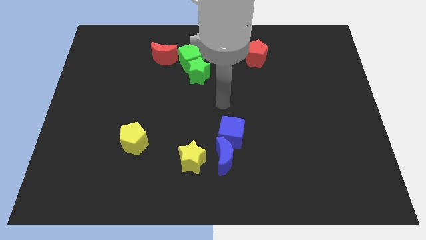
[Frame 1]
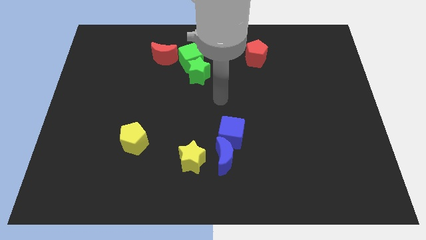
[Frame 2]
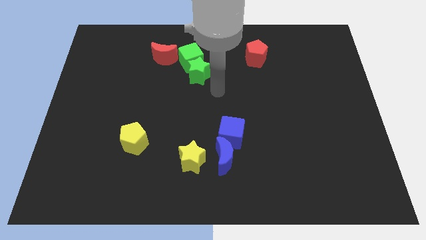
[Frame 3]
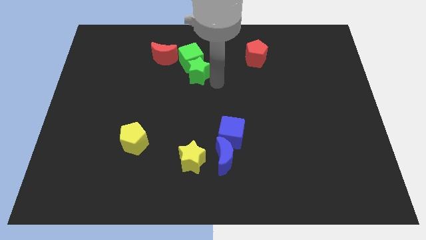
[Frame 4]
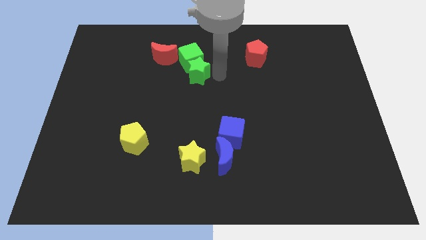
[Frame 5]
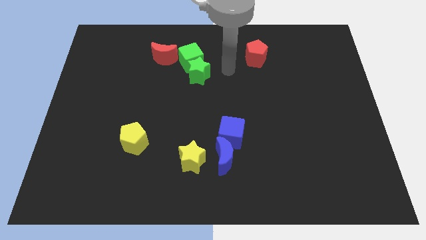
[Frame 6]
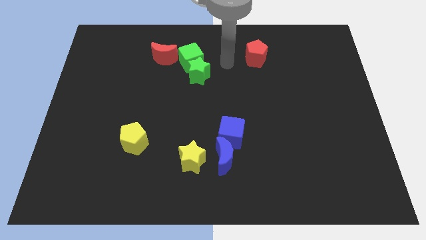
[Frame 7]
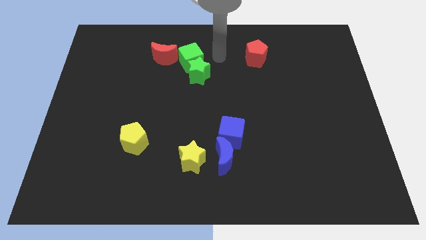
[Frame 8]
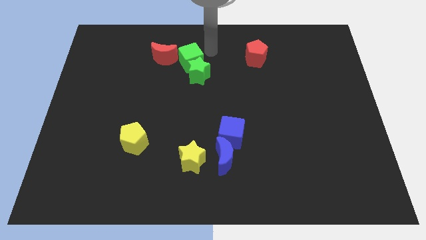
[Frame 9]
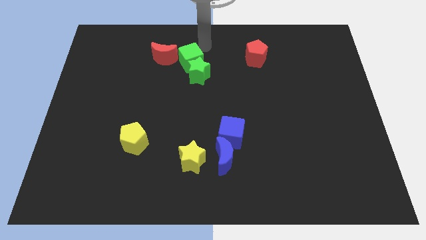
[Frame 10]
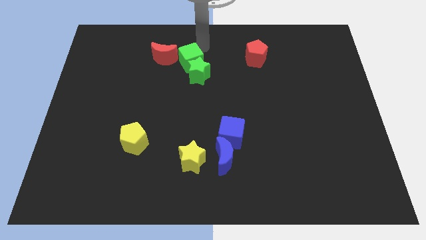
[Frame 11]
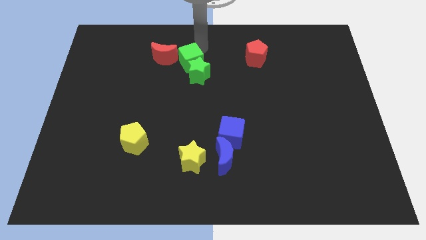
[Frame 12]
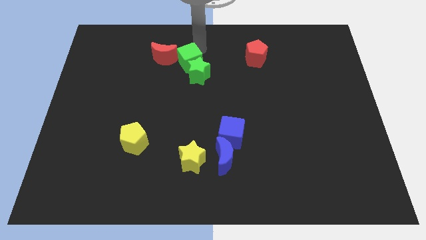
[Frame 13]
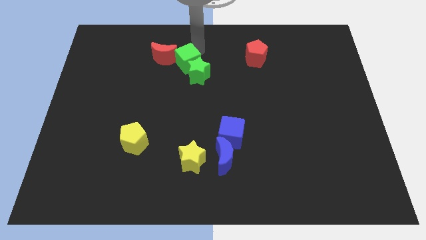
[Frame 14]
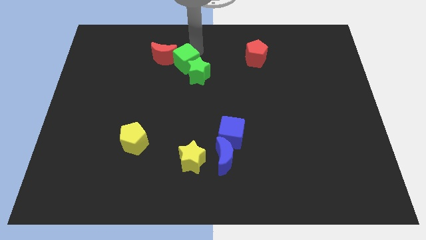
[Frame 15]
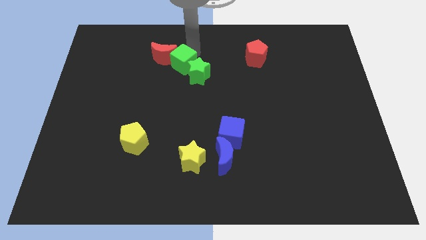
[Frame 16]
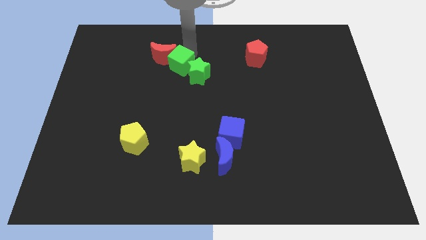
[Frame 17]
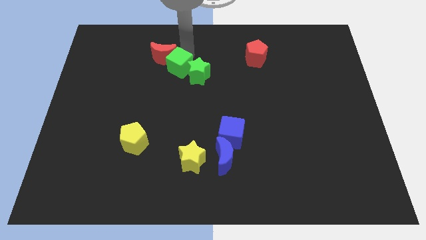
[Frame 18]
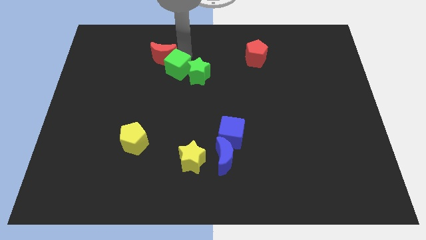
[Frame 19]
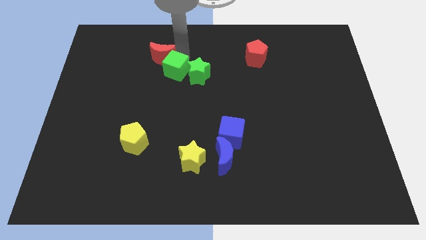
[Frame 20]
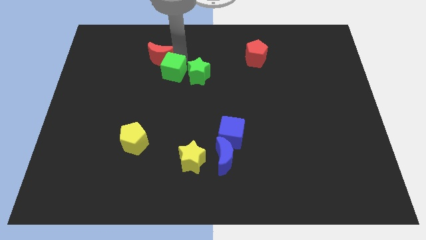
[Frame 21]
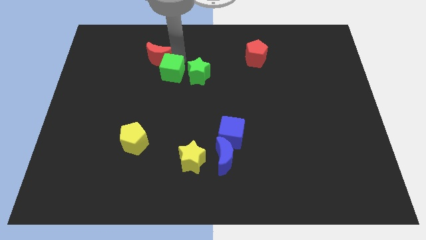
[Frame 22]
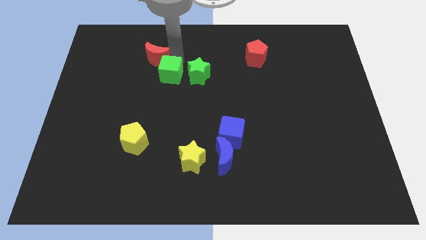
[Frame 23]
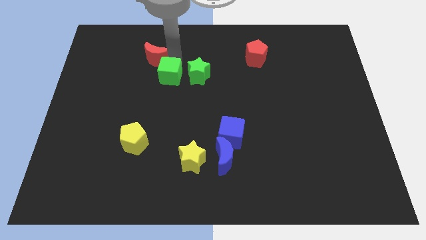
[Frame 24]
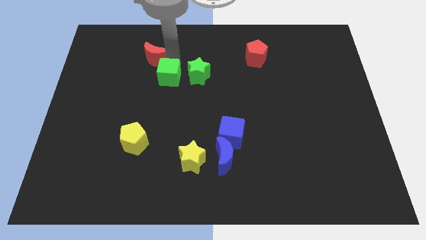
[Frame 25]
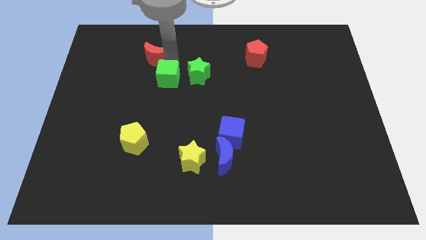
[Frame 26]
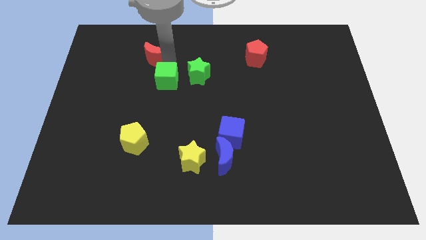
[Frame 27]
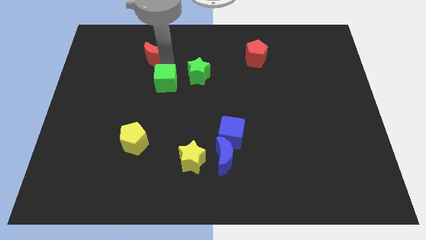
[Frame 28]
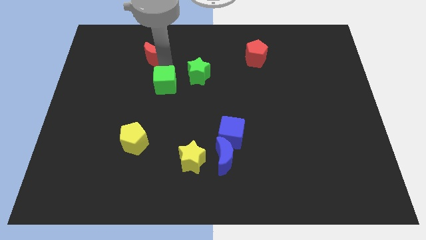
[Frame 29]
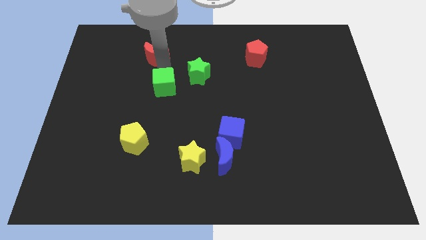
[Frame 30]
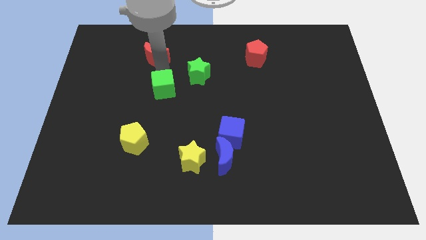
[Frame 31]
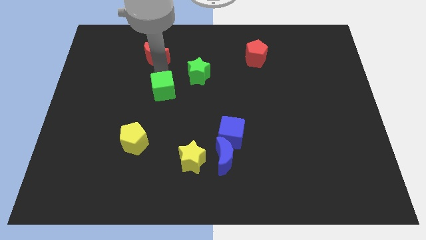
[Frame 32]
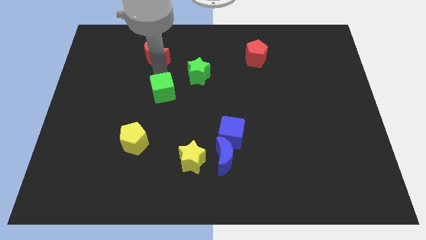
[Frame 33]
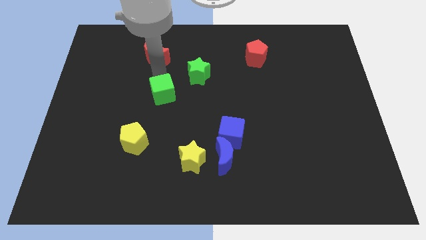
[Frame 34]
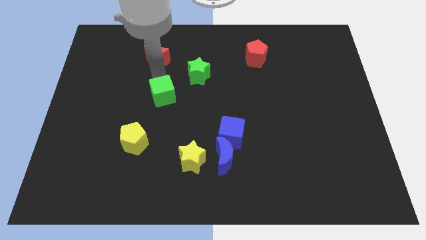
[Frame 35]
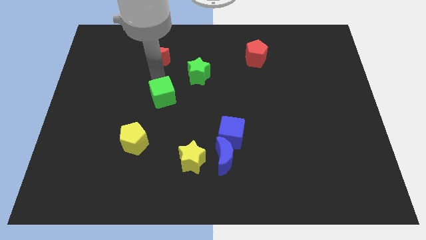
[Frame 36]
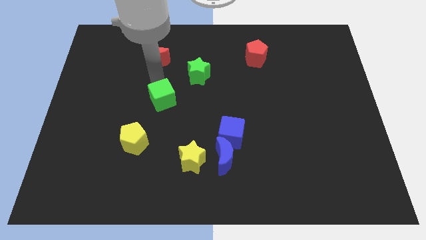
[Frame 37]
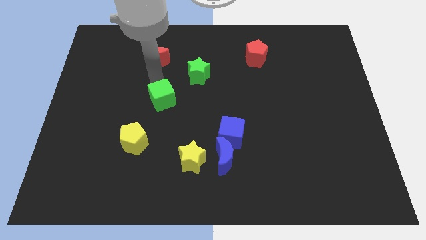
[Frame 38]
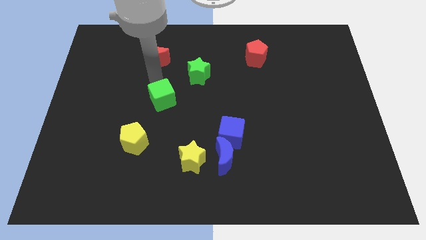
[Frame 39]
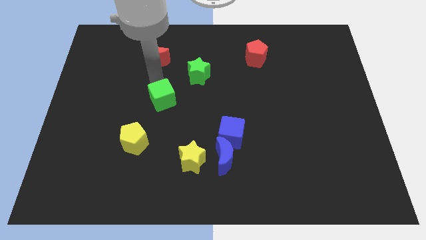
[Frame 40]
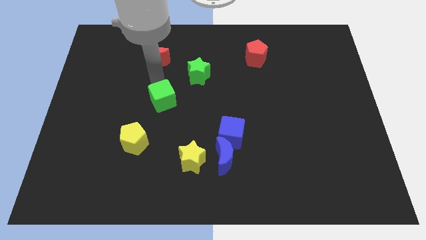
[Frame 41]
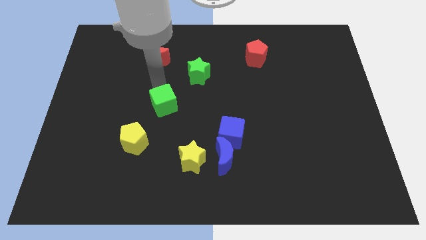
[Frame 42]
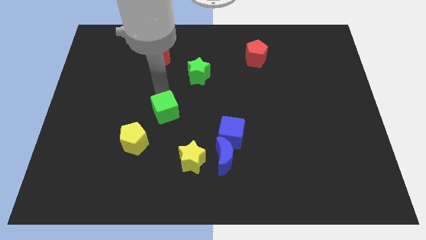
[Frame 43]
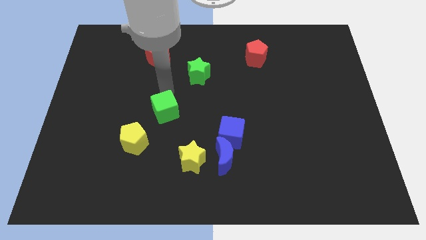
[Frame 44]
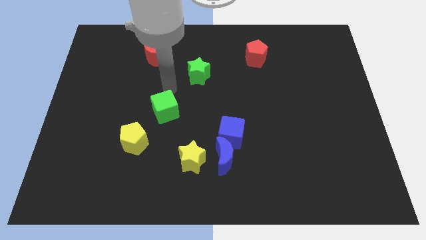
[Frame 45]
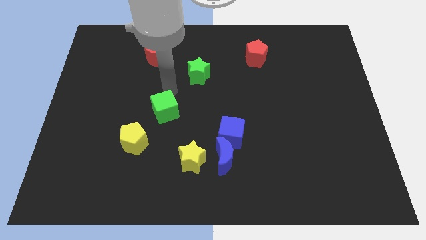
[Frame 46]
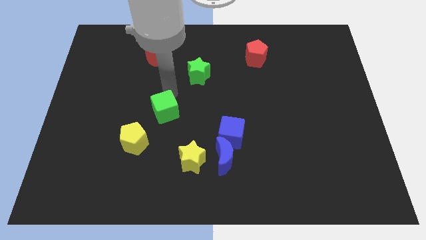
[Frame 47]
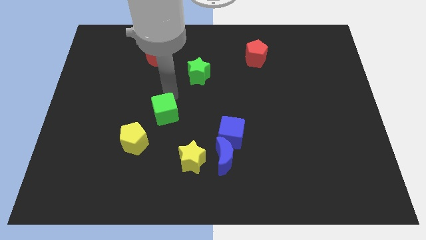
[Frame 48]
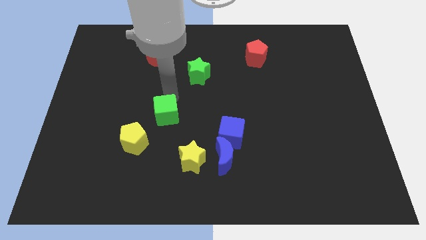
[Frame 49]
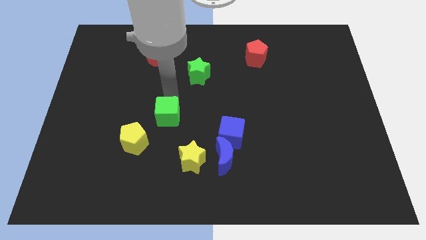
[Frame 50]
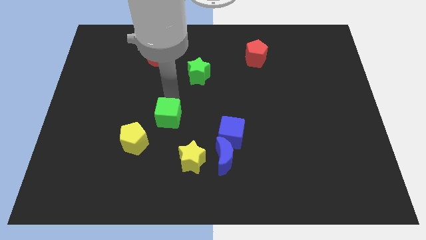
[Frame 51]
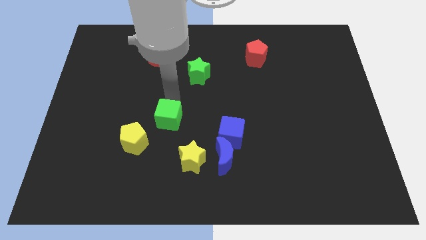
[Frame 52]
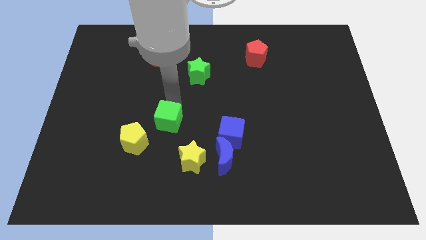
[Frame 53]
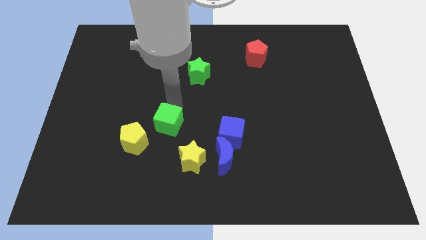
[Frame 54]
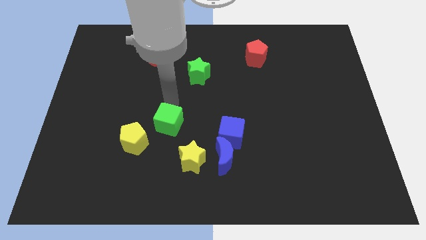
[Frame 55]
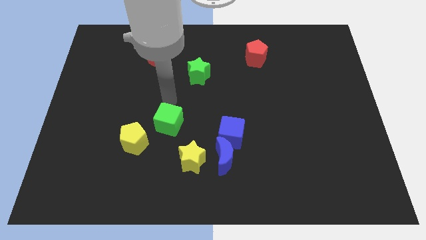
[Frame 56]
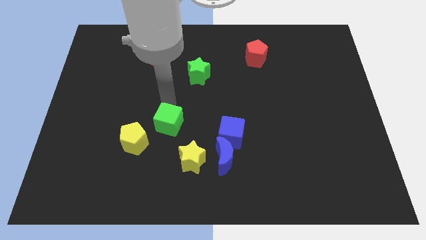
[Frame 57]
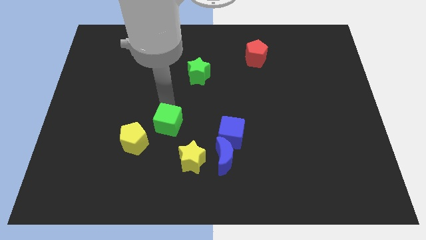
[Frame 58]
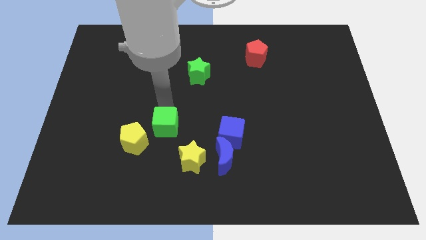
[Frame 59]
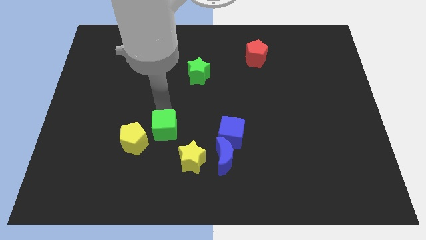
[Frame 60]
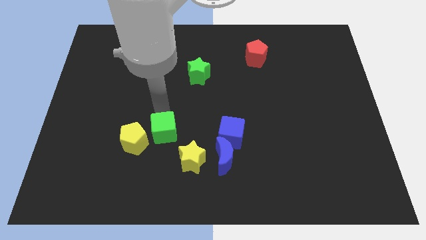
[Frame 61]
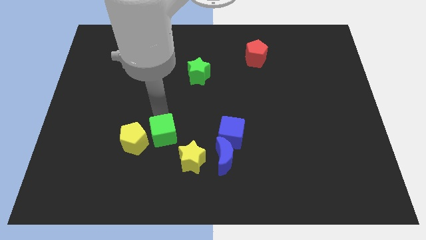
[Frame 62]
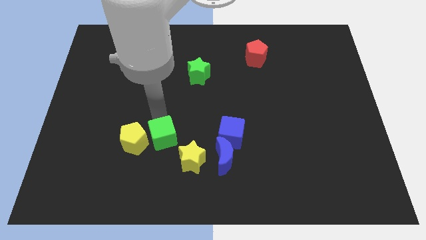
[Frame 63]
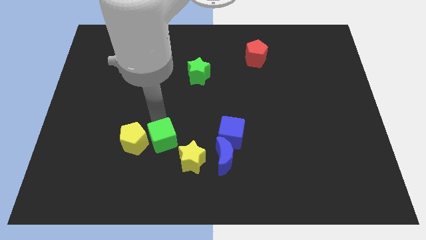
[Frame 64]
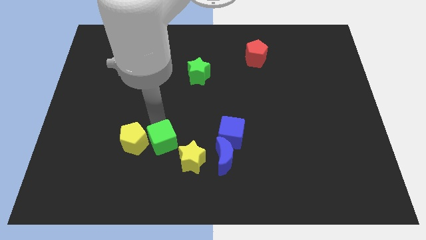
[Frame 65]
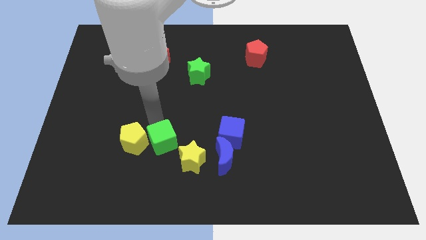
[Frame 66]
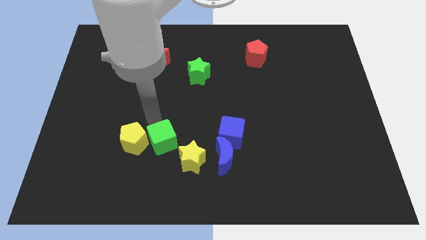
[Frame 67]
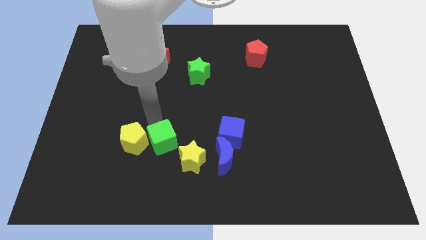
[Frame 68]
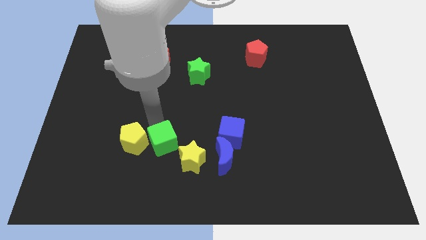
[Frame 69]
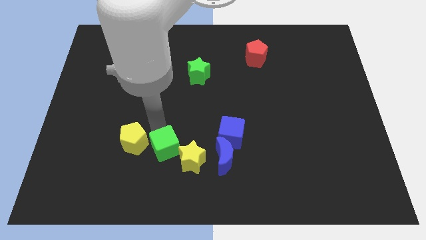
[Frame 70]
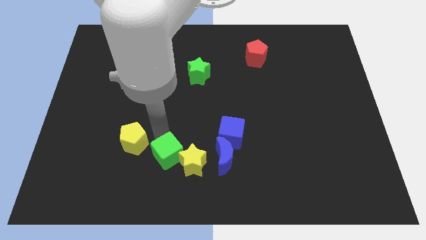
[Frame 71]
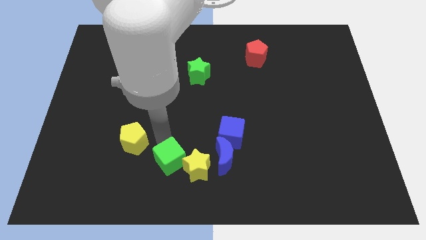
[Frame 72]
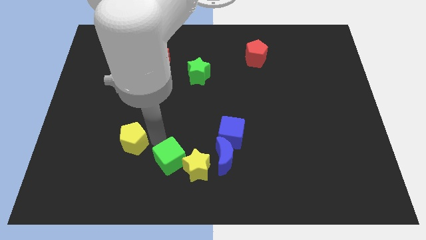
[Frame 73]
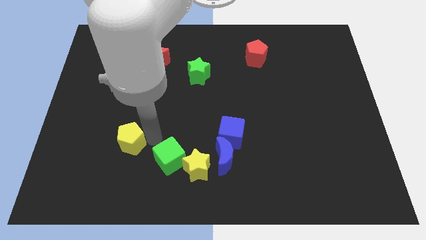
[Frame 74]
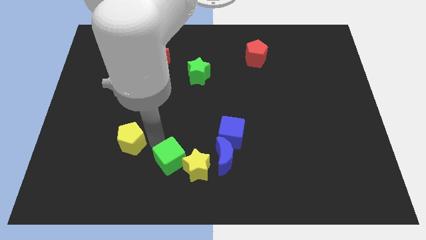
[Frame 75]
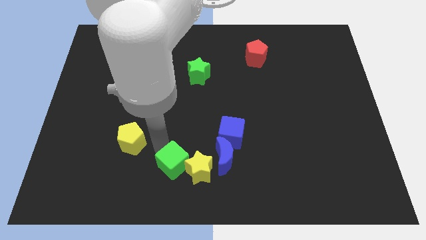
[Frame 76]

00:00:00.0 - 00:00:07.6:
slide the green cube to the bottom
